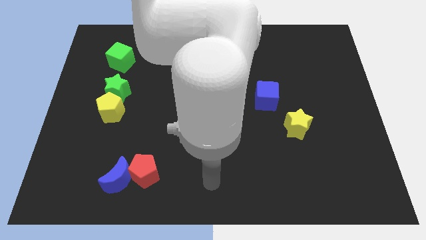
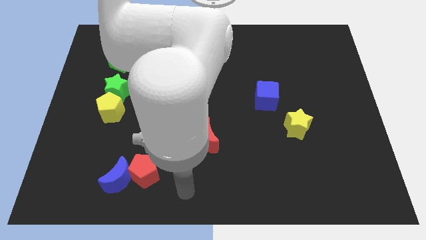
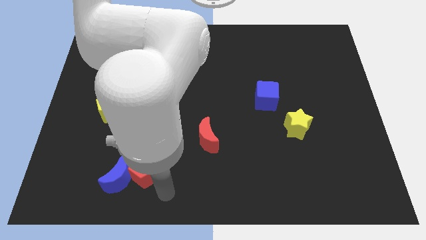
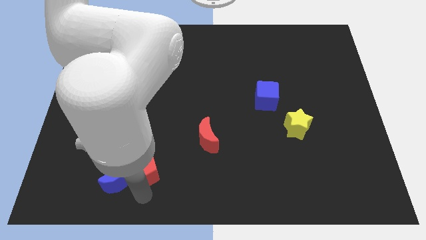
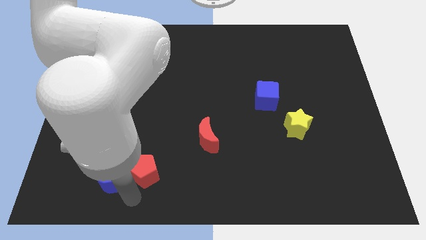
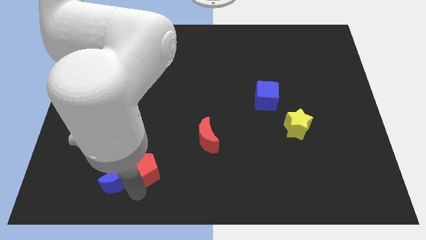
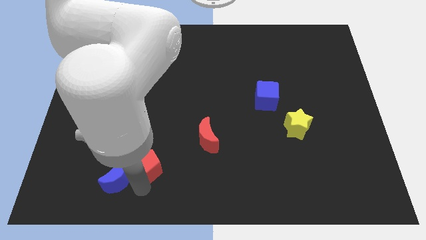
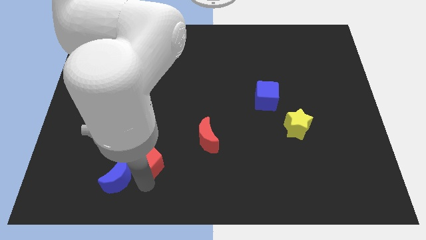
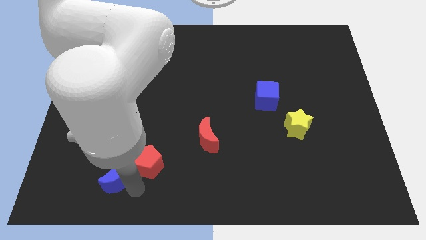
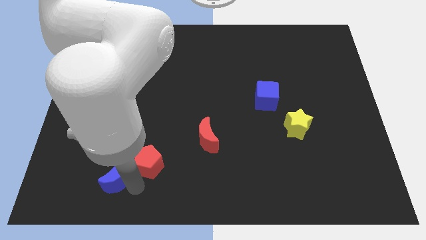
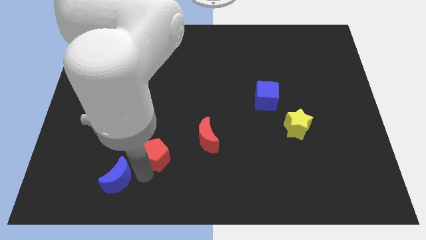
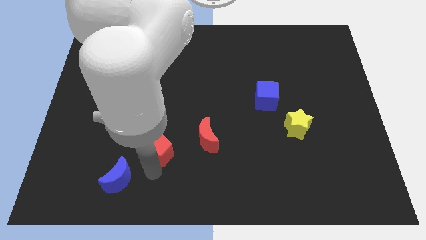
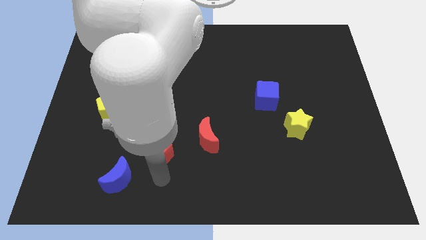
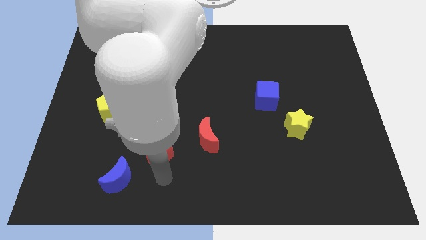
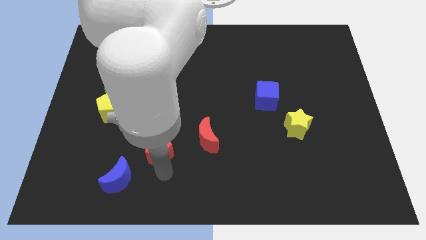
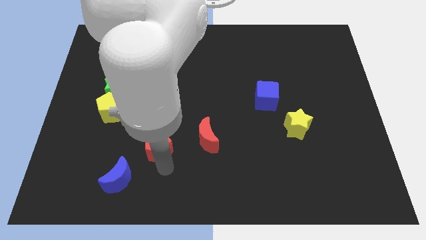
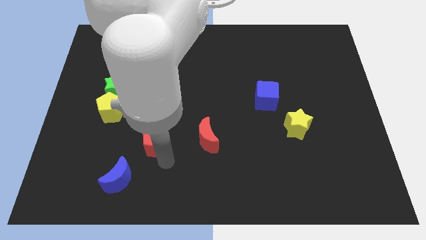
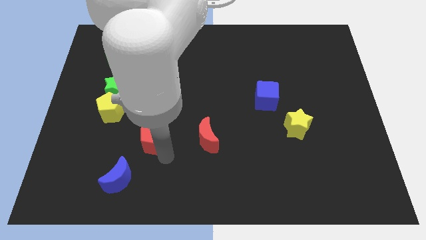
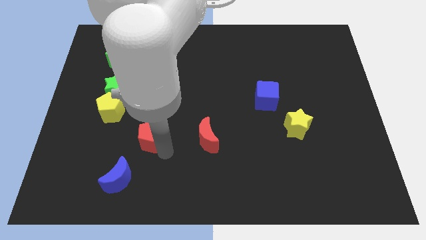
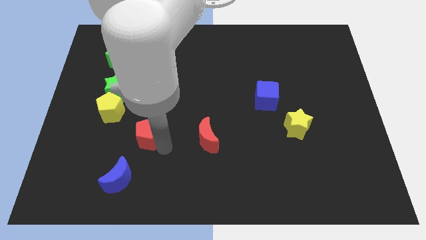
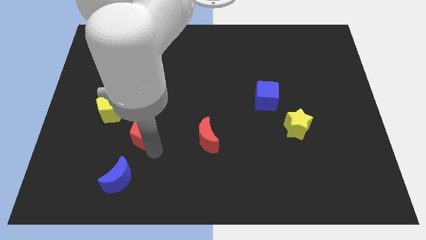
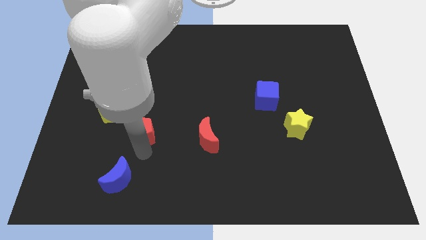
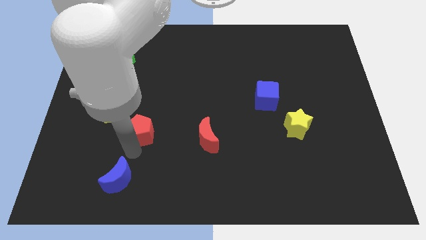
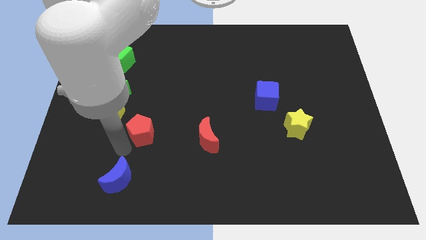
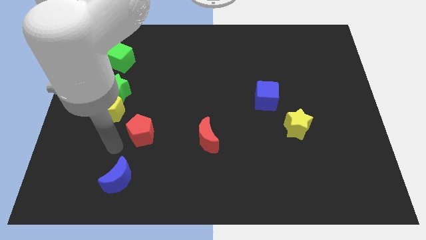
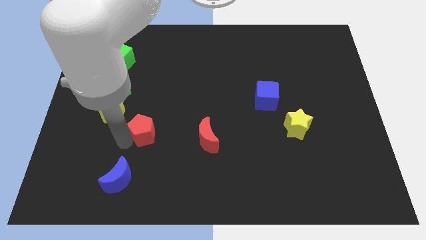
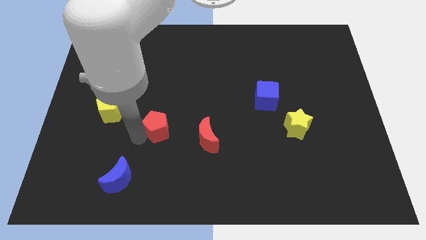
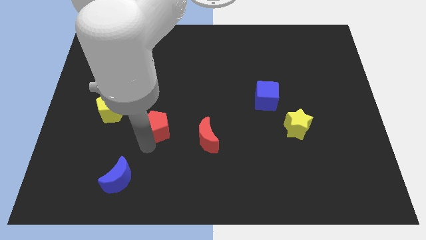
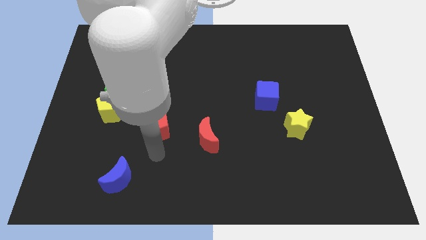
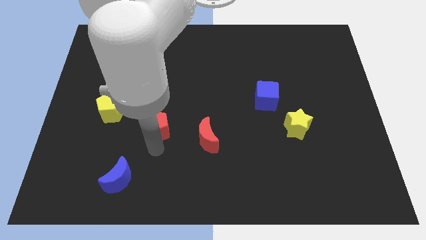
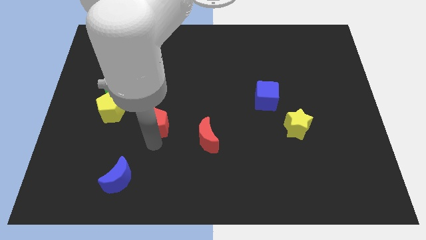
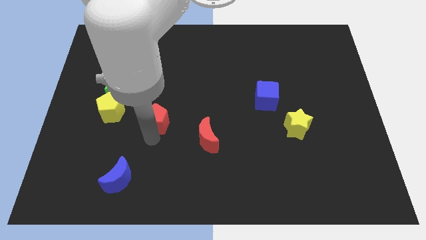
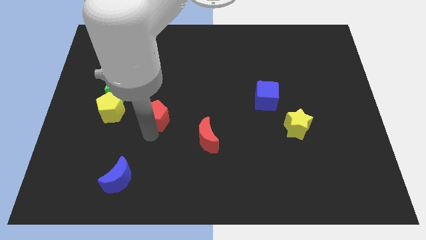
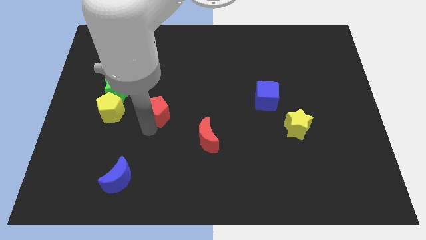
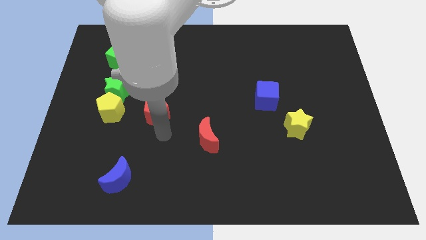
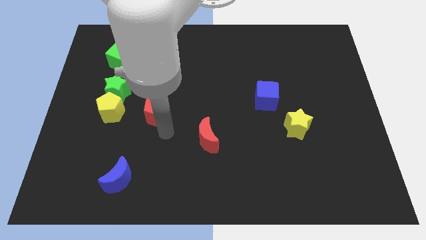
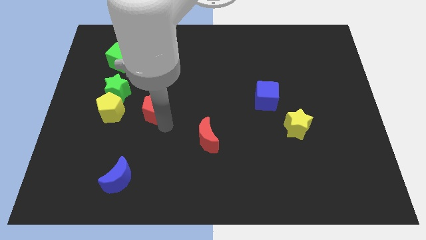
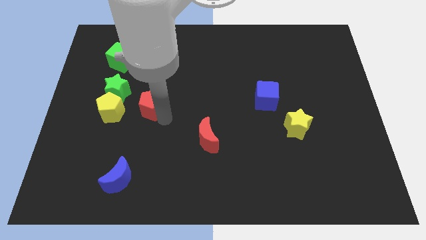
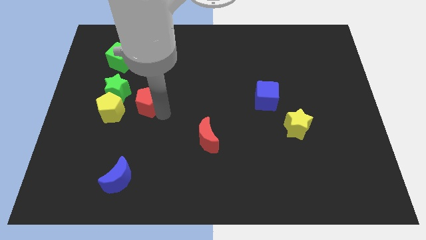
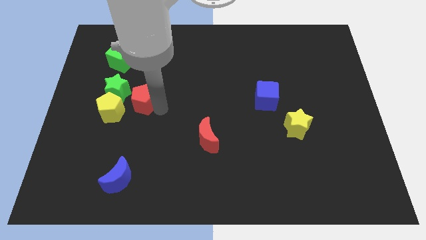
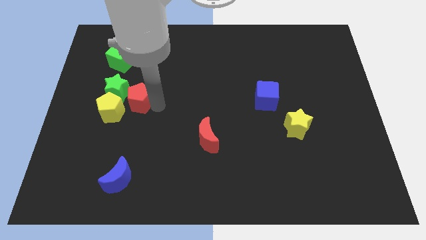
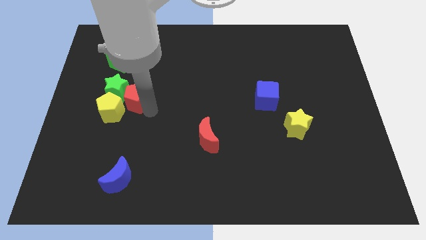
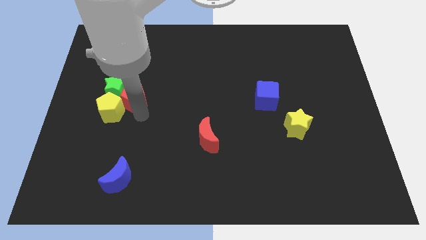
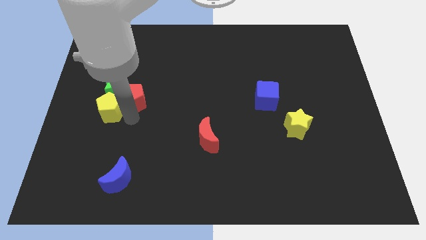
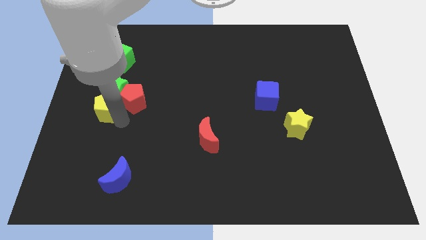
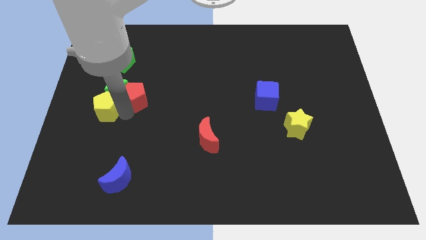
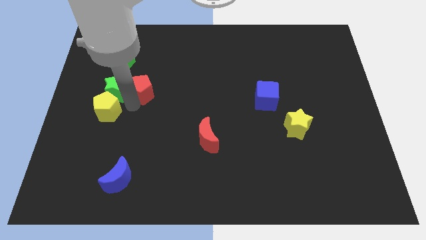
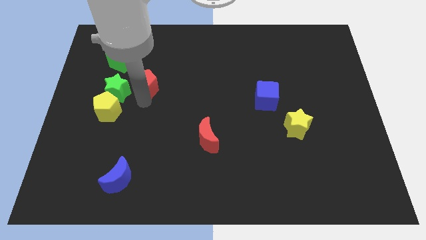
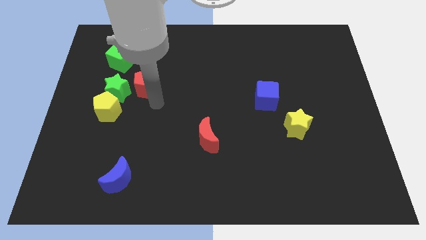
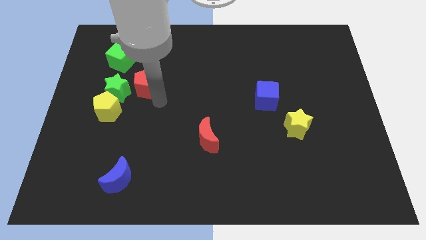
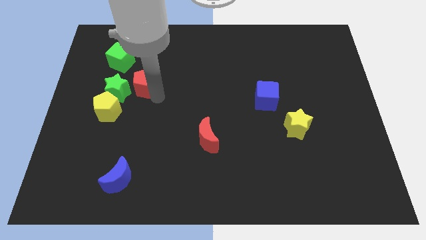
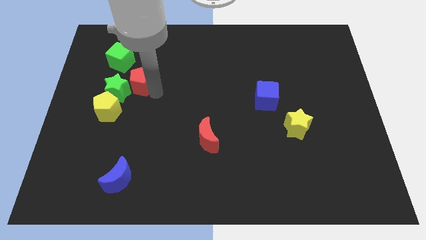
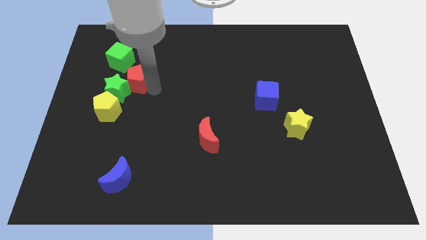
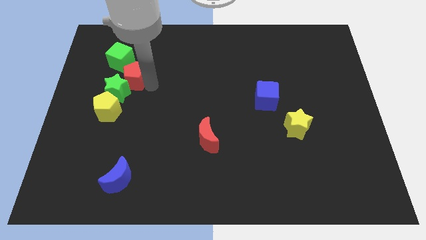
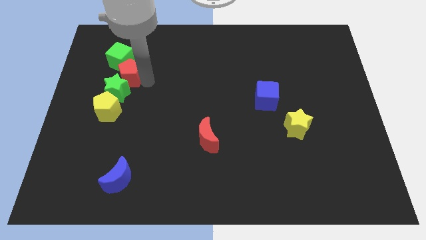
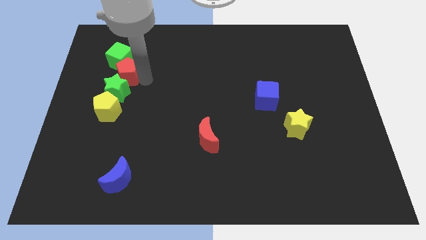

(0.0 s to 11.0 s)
slide the red pentagon close to the green cube
